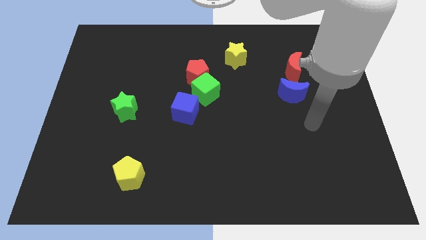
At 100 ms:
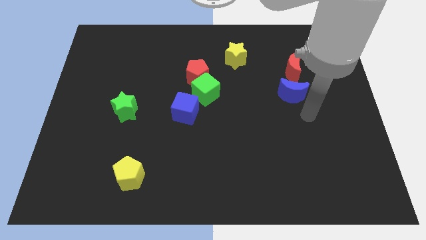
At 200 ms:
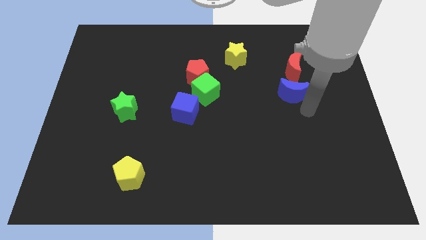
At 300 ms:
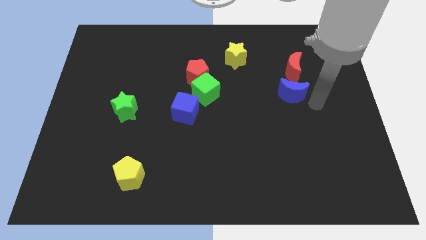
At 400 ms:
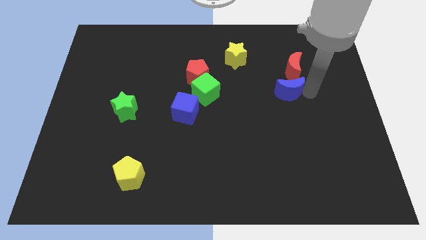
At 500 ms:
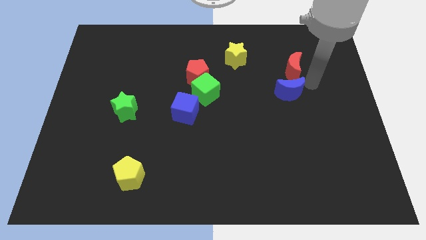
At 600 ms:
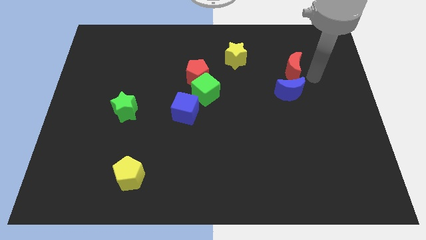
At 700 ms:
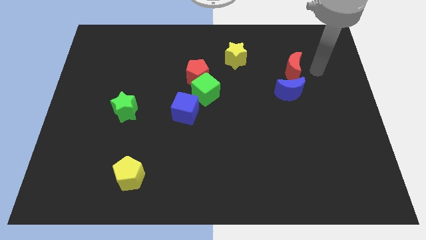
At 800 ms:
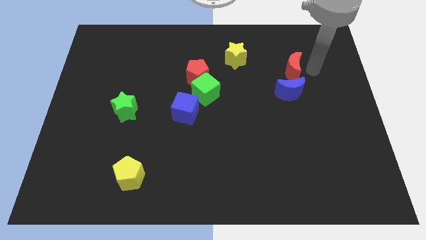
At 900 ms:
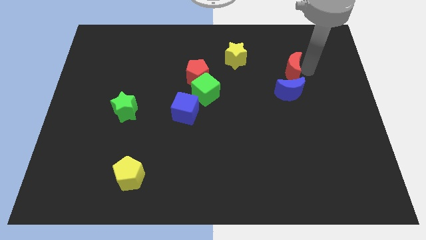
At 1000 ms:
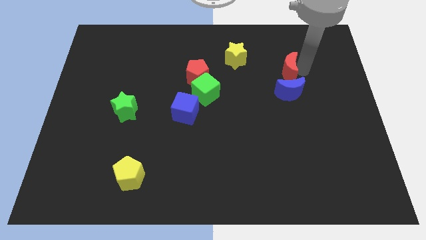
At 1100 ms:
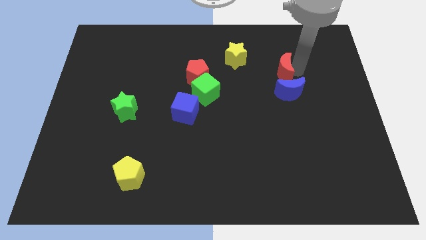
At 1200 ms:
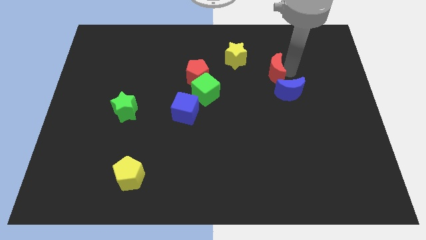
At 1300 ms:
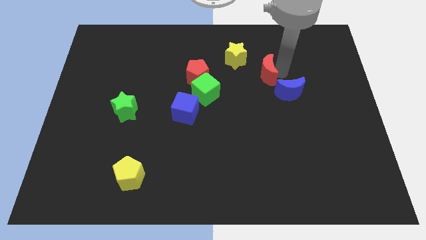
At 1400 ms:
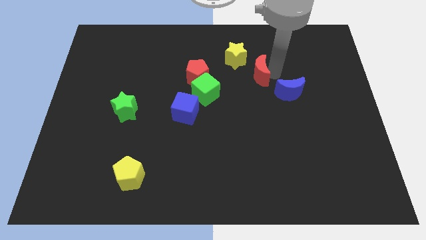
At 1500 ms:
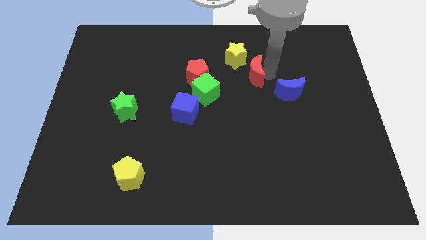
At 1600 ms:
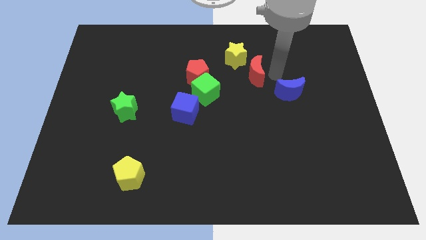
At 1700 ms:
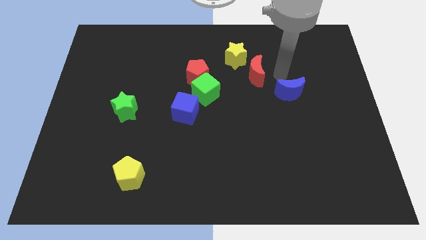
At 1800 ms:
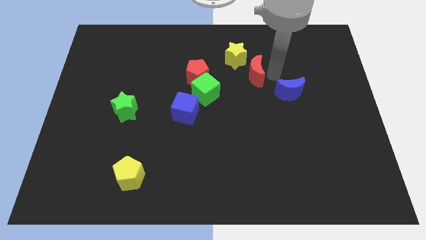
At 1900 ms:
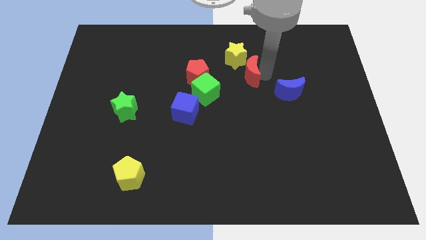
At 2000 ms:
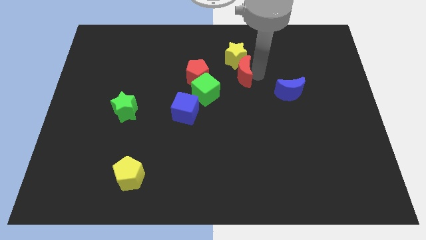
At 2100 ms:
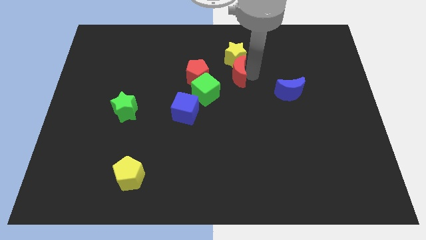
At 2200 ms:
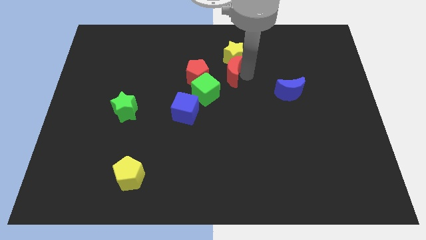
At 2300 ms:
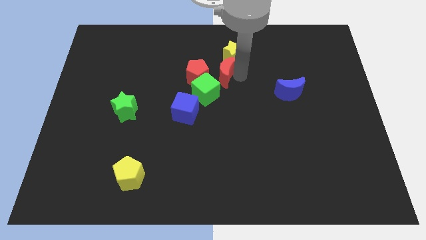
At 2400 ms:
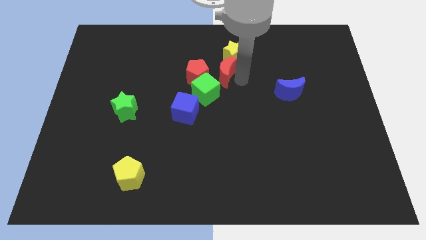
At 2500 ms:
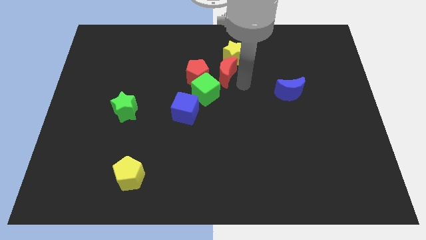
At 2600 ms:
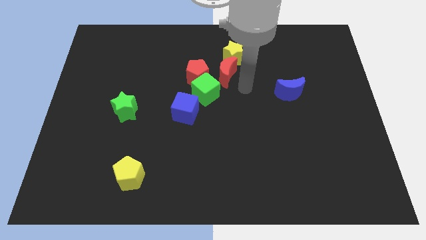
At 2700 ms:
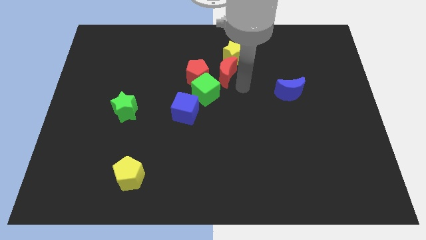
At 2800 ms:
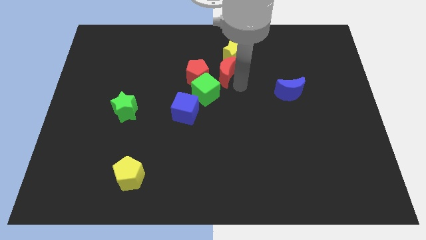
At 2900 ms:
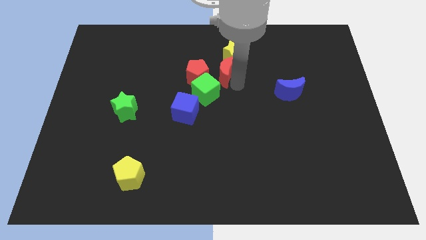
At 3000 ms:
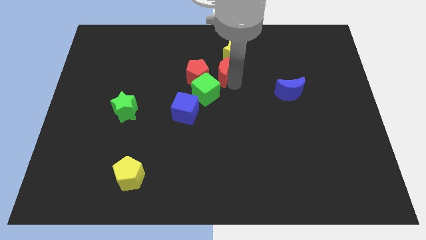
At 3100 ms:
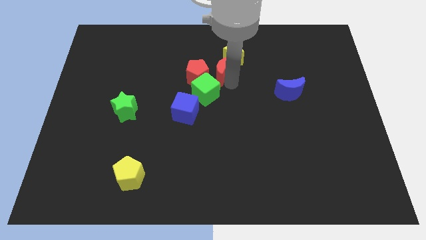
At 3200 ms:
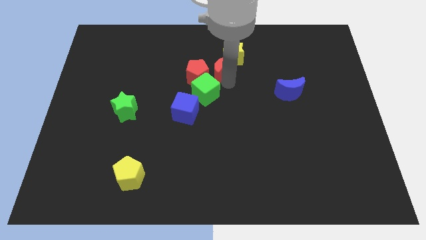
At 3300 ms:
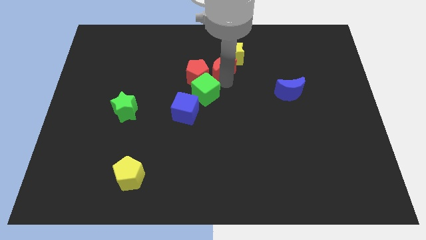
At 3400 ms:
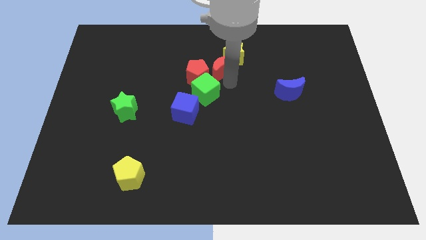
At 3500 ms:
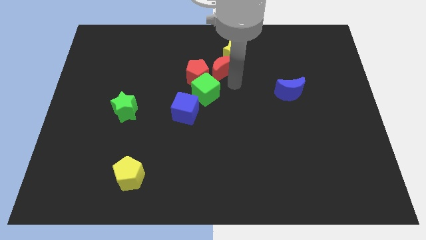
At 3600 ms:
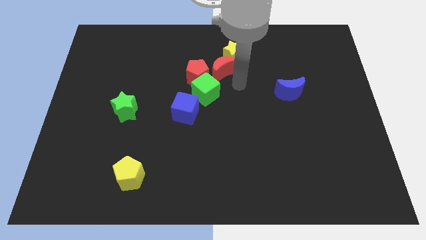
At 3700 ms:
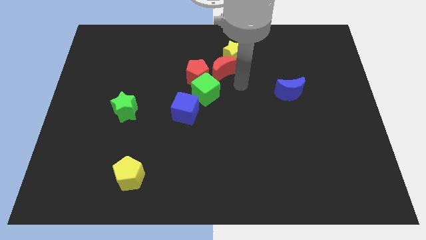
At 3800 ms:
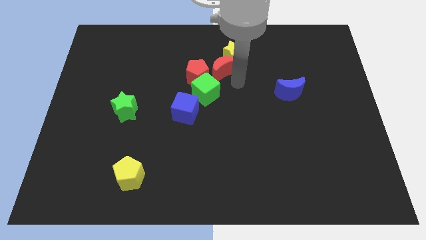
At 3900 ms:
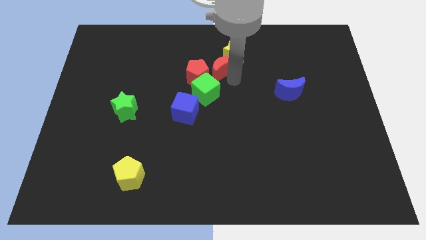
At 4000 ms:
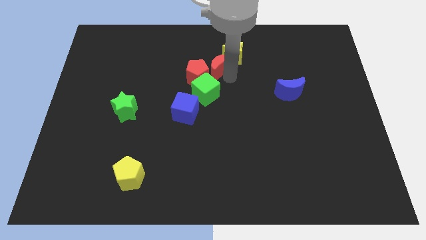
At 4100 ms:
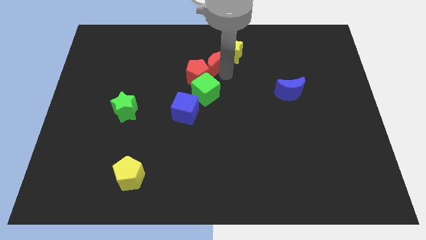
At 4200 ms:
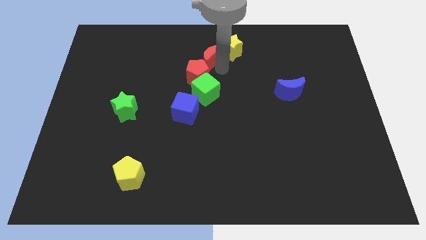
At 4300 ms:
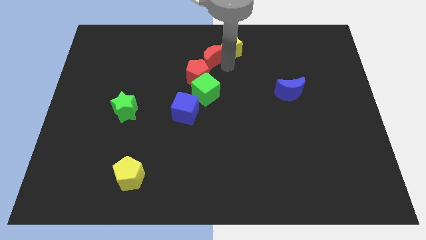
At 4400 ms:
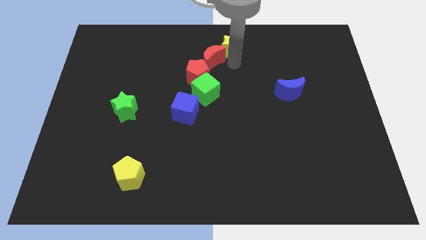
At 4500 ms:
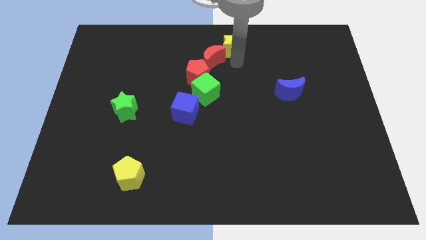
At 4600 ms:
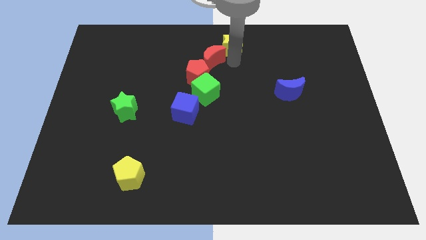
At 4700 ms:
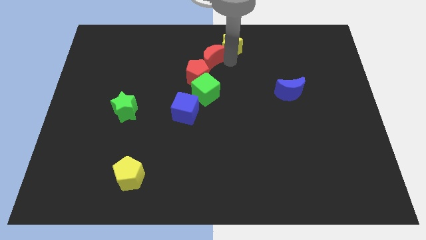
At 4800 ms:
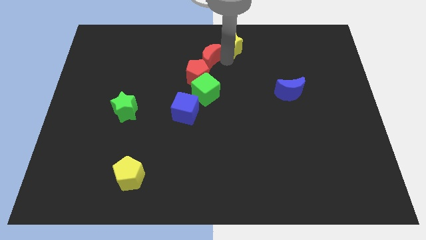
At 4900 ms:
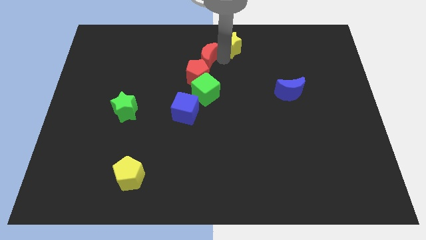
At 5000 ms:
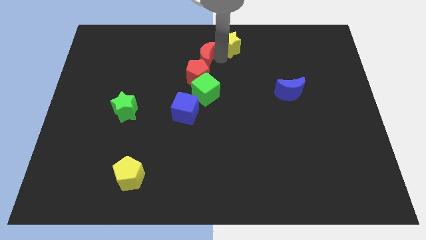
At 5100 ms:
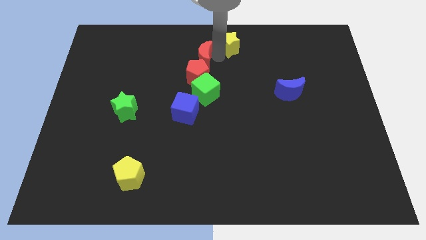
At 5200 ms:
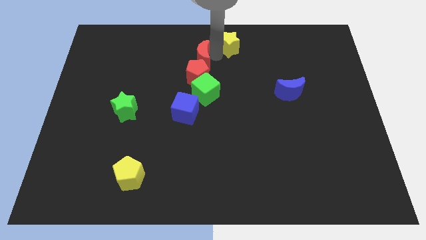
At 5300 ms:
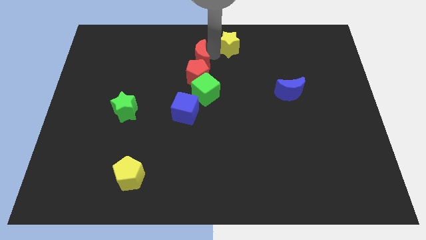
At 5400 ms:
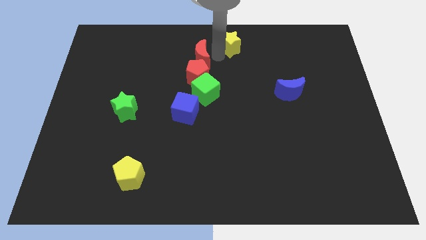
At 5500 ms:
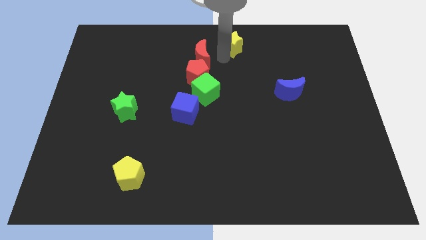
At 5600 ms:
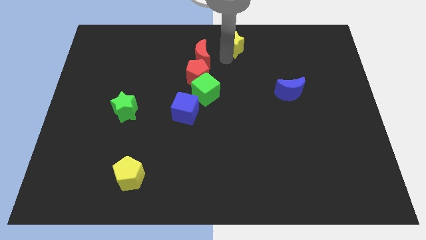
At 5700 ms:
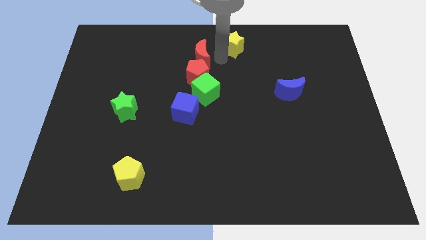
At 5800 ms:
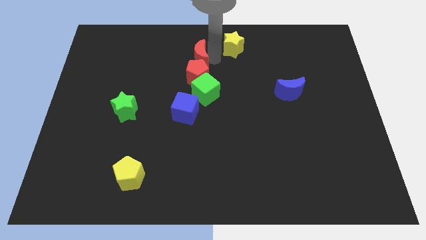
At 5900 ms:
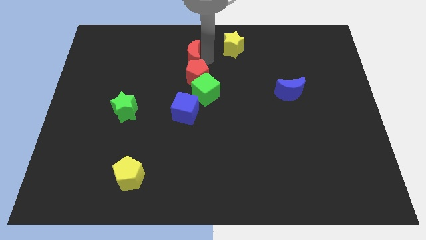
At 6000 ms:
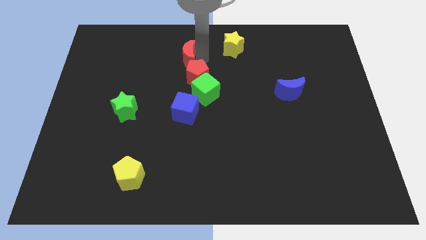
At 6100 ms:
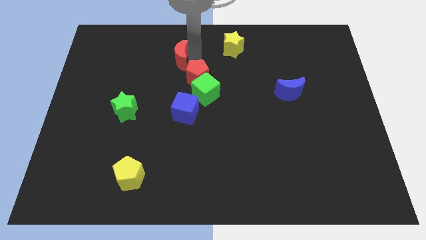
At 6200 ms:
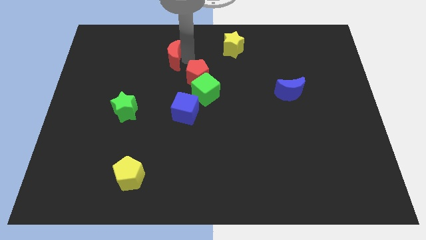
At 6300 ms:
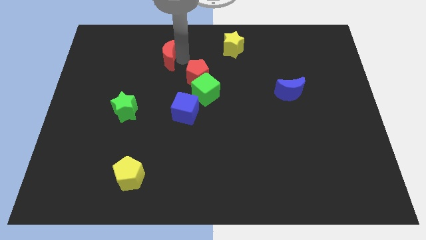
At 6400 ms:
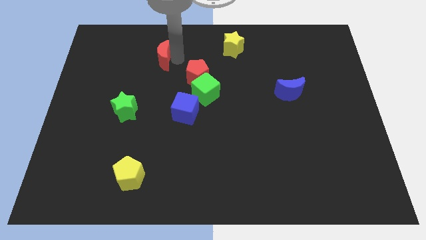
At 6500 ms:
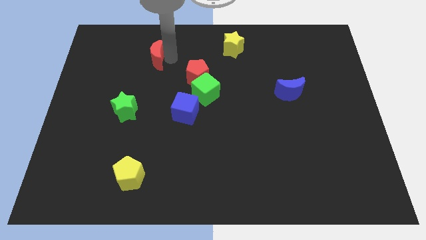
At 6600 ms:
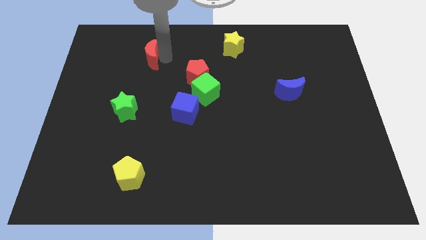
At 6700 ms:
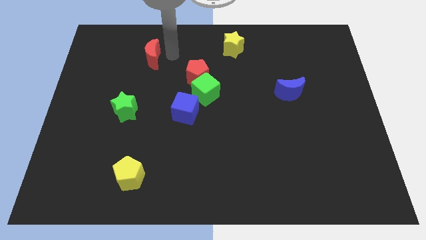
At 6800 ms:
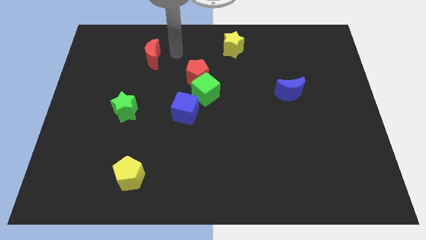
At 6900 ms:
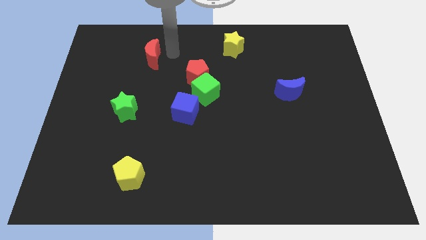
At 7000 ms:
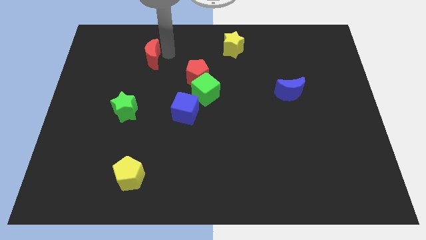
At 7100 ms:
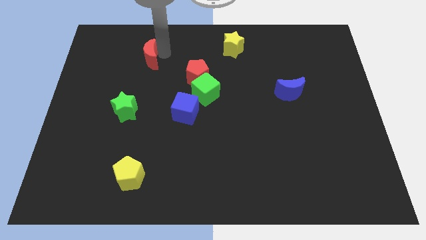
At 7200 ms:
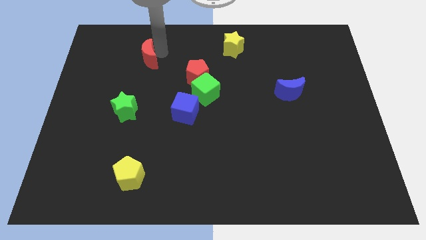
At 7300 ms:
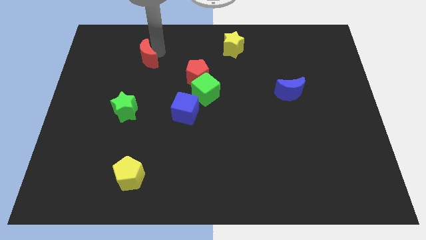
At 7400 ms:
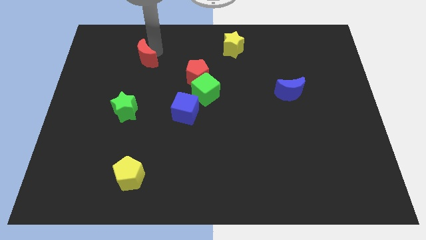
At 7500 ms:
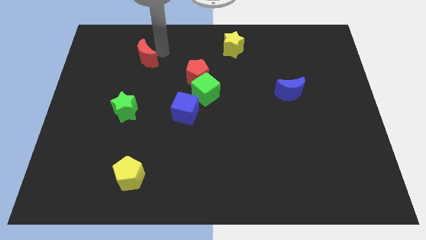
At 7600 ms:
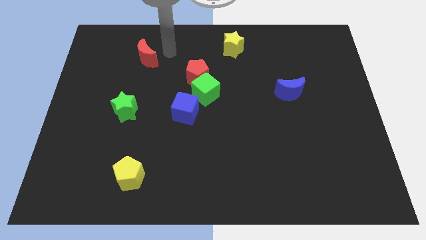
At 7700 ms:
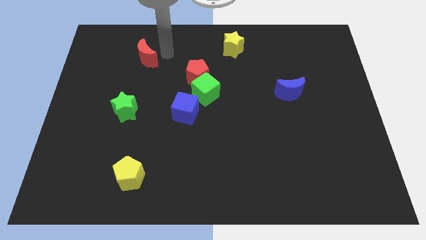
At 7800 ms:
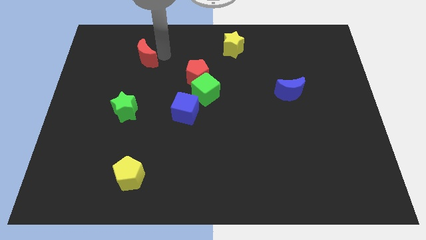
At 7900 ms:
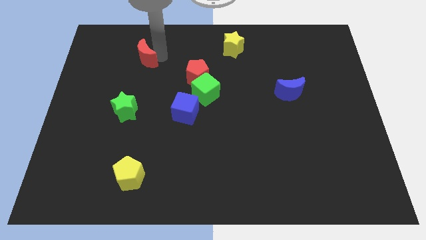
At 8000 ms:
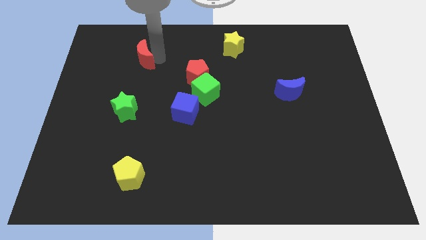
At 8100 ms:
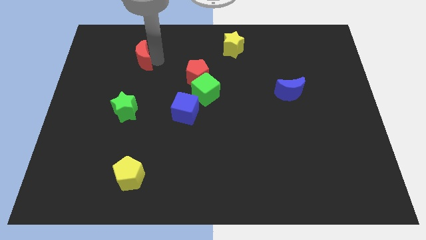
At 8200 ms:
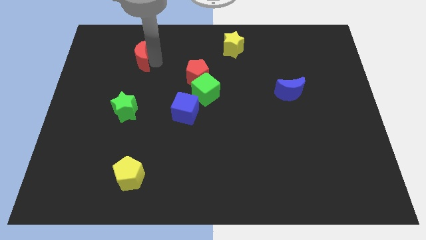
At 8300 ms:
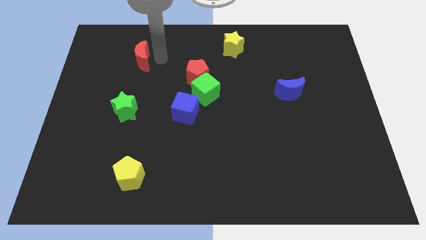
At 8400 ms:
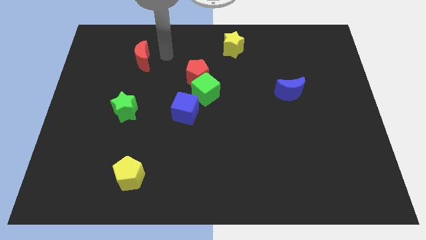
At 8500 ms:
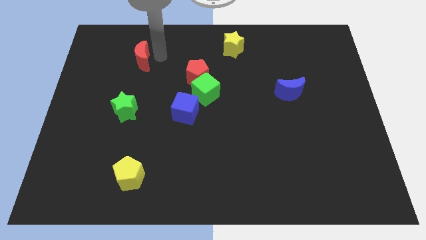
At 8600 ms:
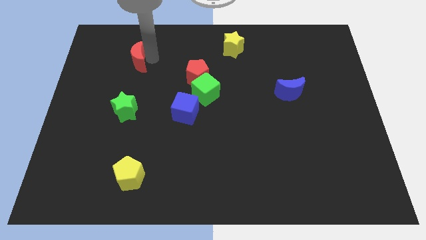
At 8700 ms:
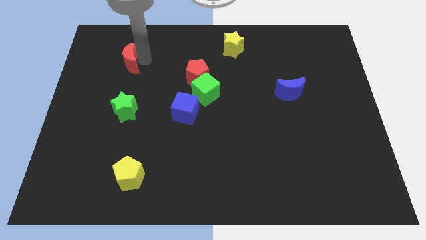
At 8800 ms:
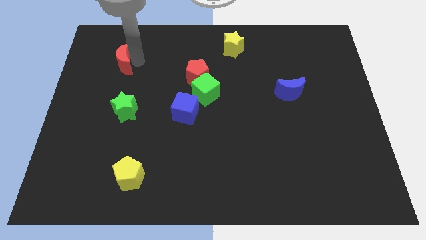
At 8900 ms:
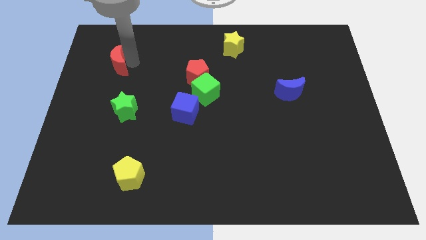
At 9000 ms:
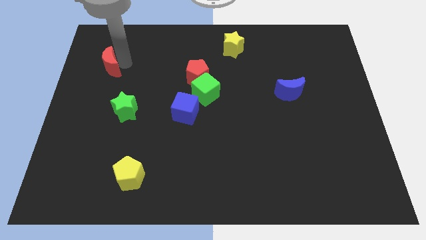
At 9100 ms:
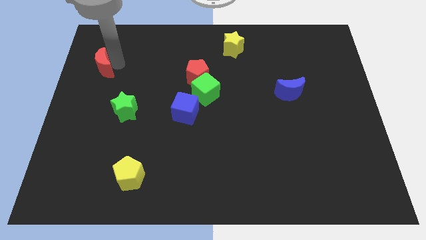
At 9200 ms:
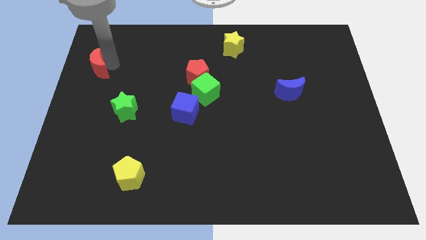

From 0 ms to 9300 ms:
push the red moon to the left side
